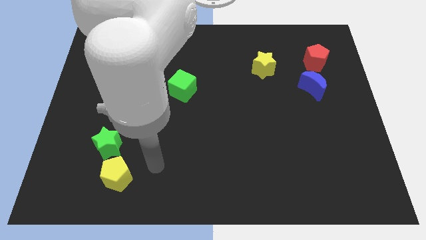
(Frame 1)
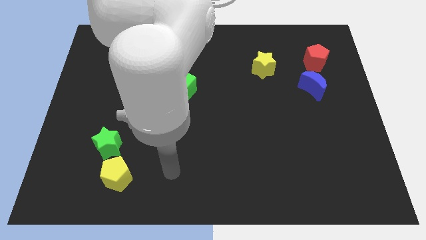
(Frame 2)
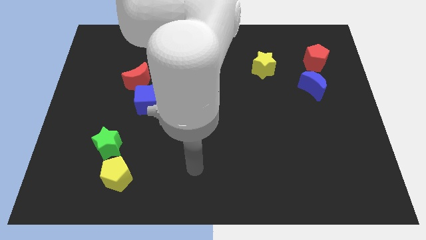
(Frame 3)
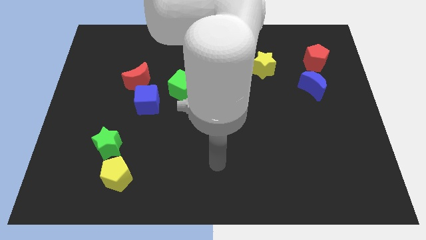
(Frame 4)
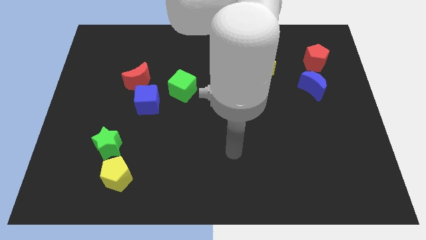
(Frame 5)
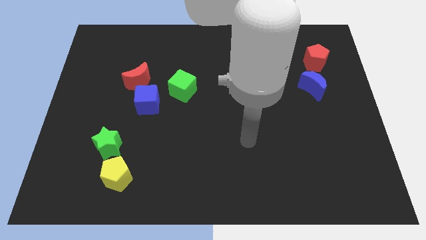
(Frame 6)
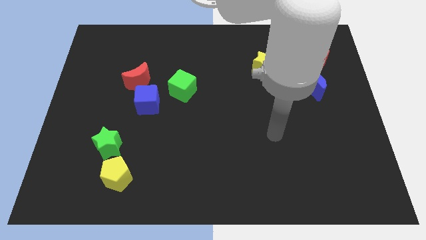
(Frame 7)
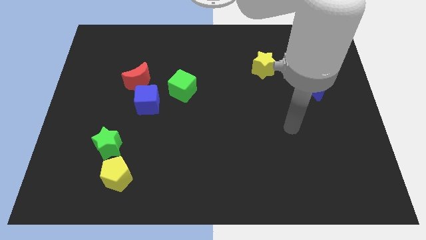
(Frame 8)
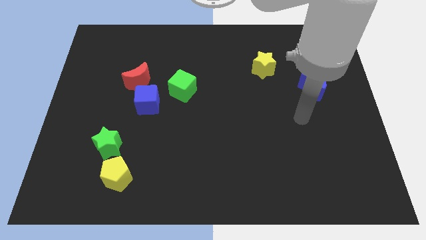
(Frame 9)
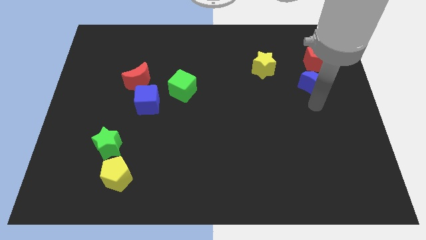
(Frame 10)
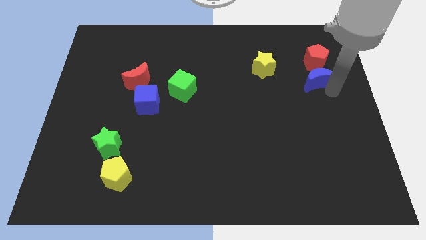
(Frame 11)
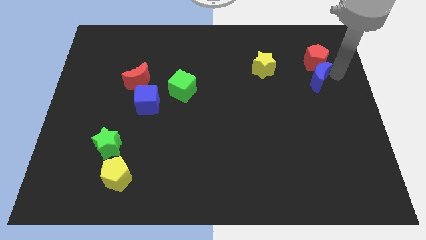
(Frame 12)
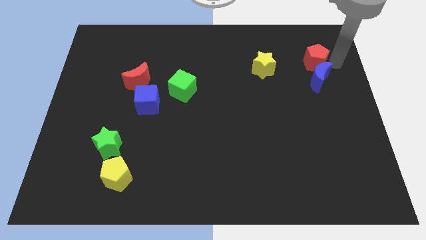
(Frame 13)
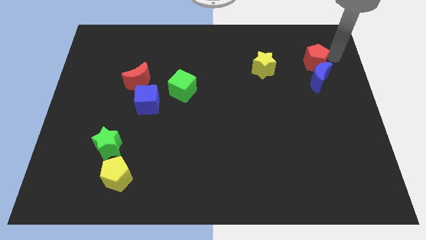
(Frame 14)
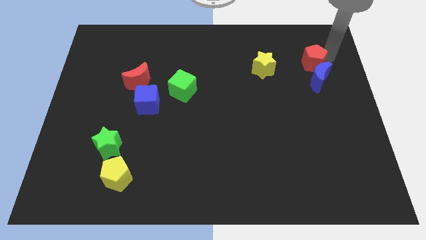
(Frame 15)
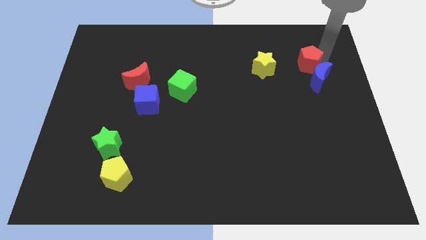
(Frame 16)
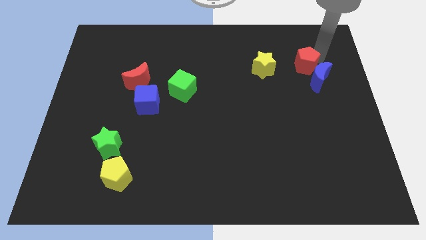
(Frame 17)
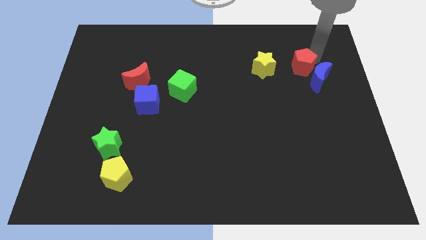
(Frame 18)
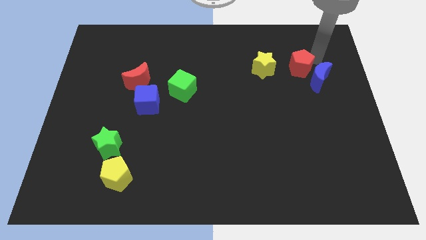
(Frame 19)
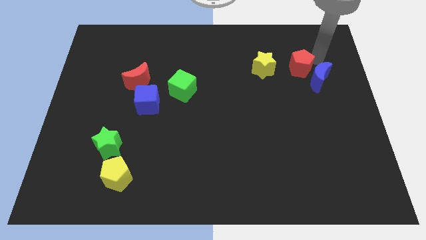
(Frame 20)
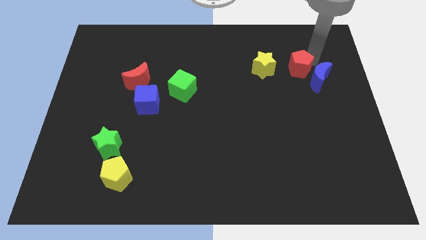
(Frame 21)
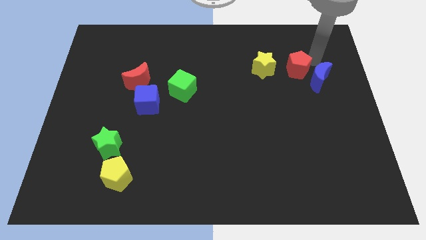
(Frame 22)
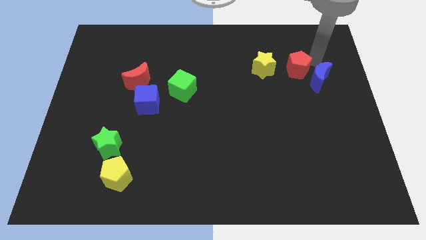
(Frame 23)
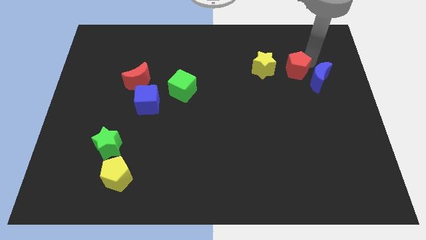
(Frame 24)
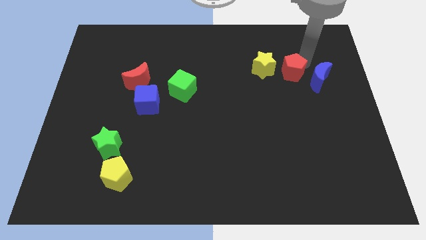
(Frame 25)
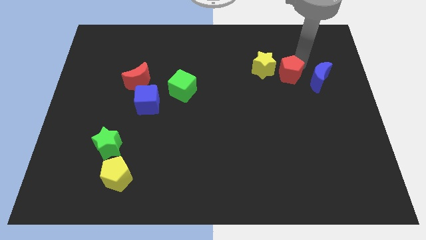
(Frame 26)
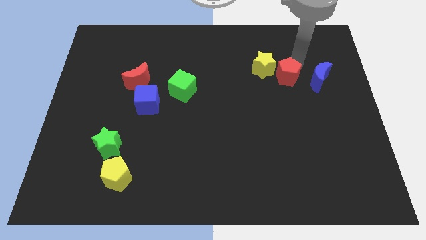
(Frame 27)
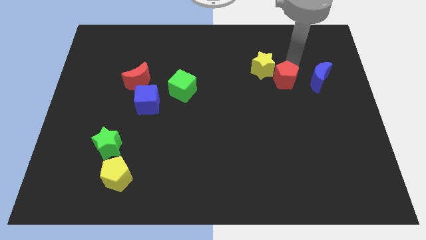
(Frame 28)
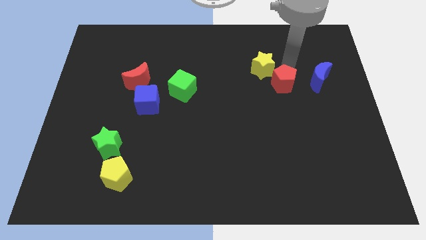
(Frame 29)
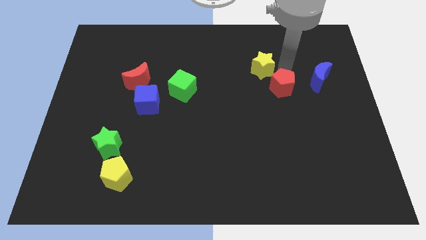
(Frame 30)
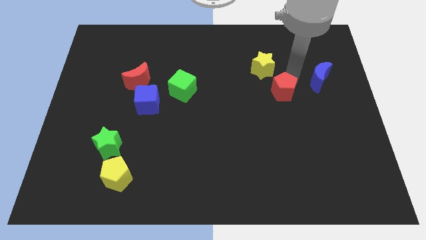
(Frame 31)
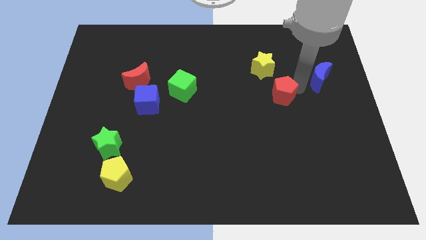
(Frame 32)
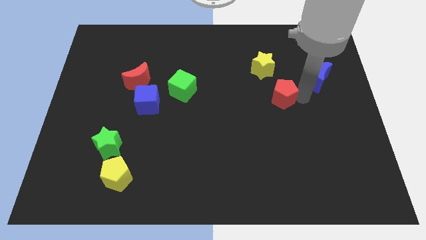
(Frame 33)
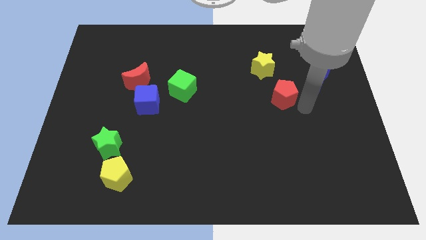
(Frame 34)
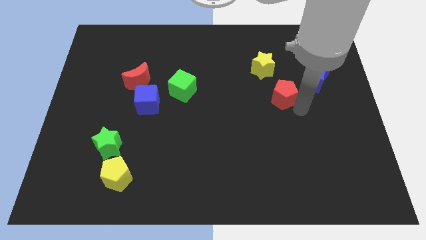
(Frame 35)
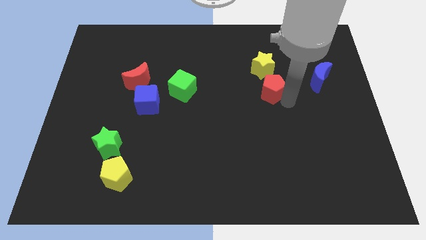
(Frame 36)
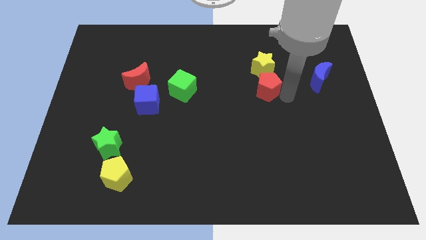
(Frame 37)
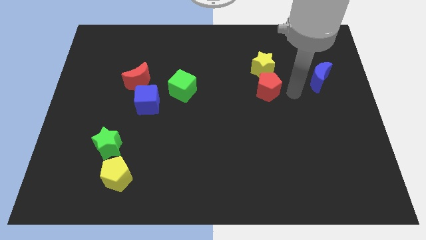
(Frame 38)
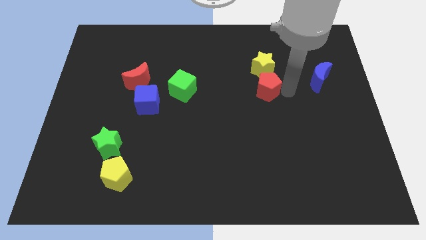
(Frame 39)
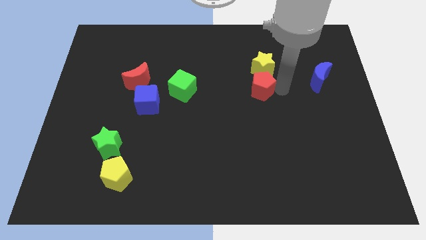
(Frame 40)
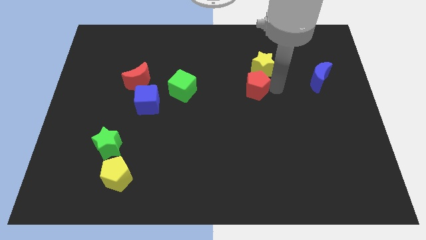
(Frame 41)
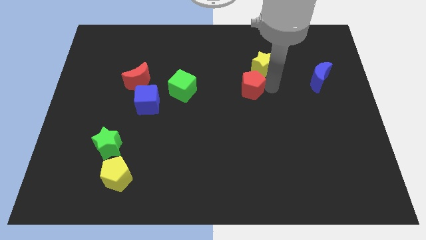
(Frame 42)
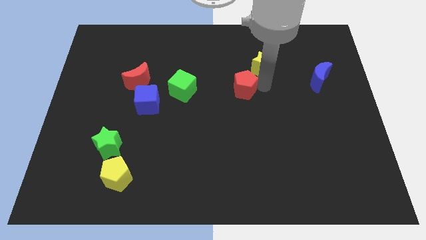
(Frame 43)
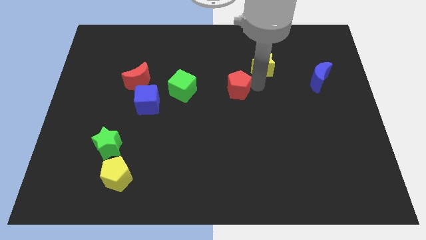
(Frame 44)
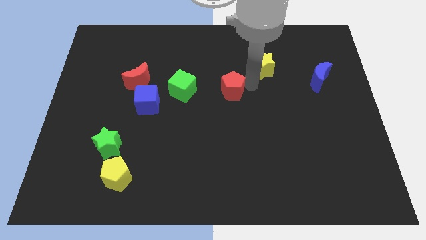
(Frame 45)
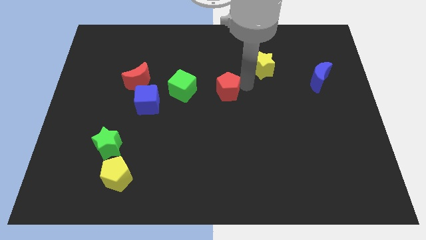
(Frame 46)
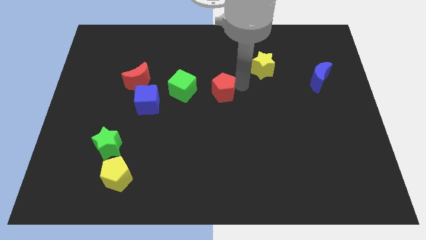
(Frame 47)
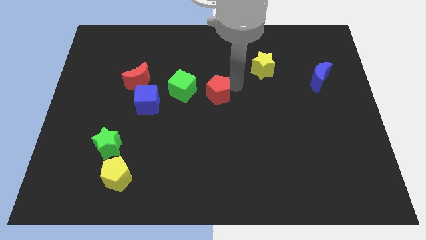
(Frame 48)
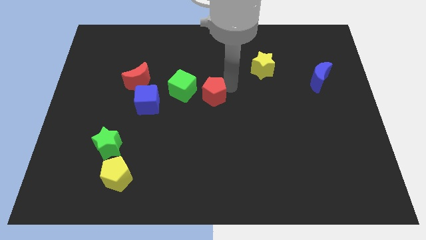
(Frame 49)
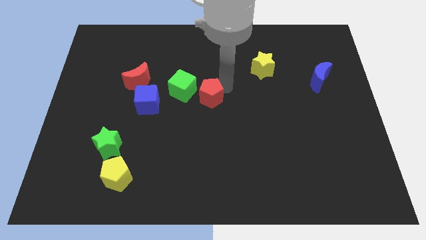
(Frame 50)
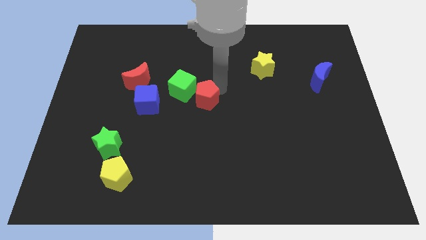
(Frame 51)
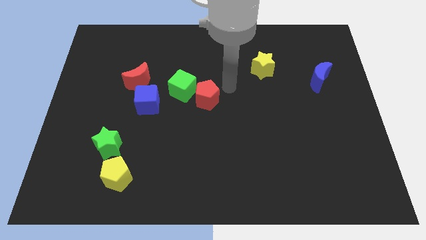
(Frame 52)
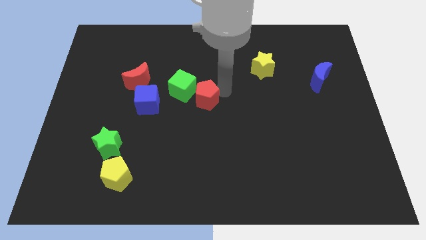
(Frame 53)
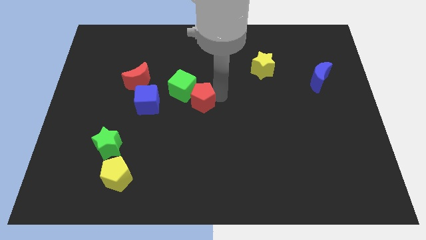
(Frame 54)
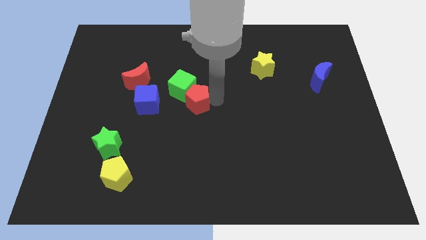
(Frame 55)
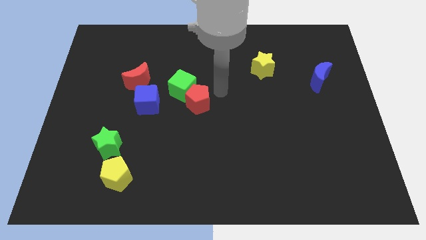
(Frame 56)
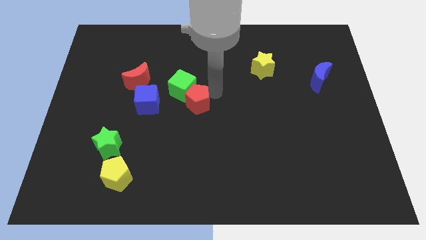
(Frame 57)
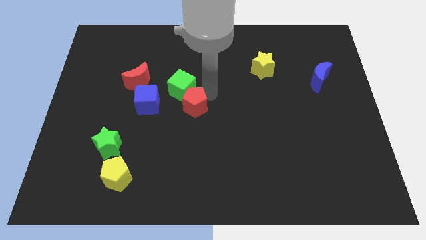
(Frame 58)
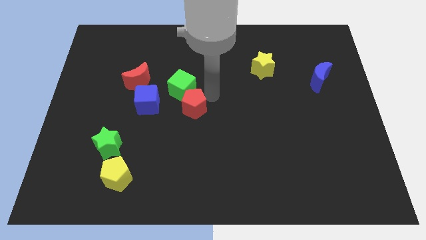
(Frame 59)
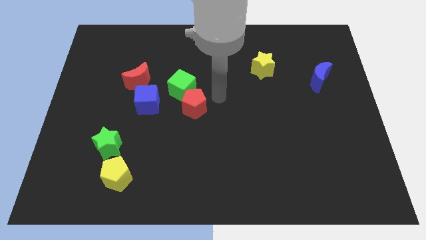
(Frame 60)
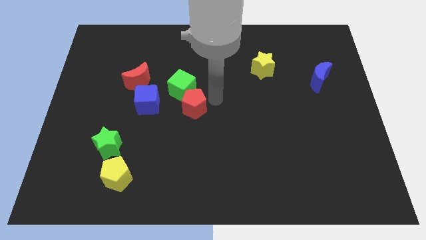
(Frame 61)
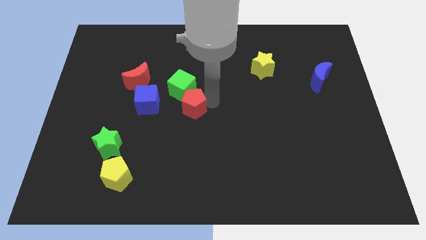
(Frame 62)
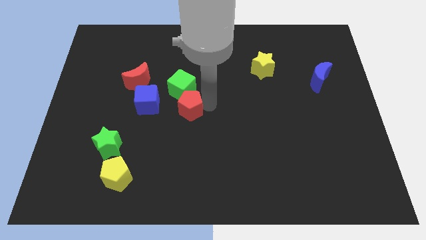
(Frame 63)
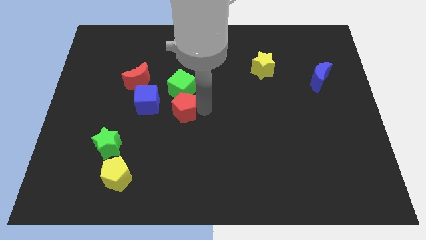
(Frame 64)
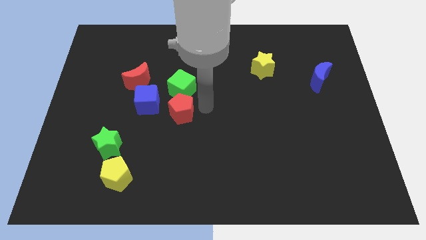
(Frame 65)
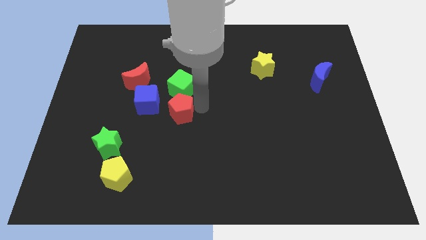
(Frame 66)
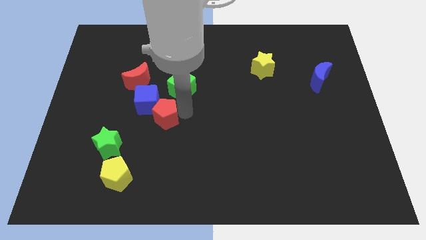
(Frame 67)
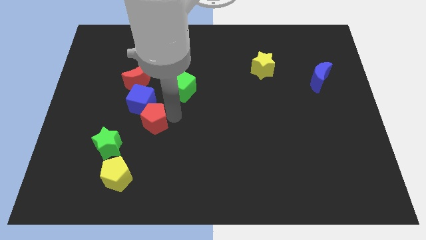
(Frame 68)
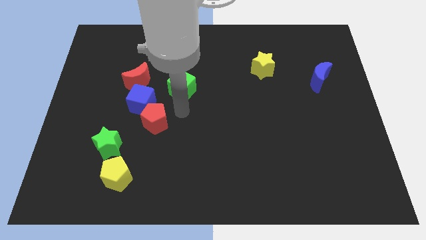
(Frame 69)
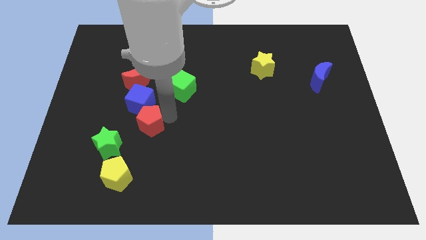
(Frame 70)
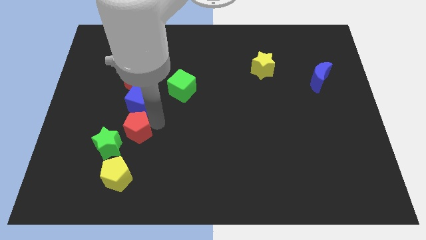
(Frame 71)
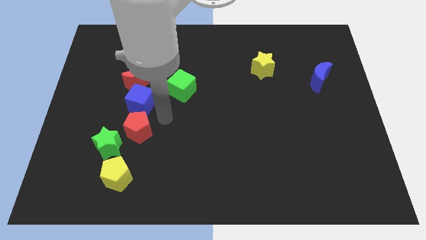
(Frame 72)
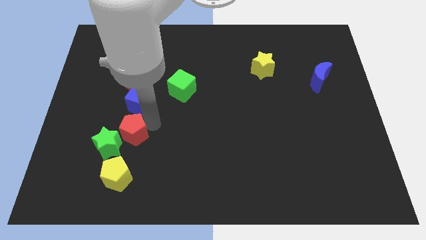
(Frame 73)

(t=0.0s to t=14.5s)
slide the red pentagon towards the green star
